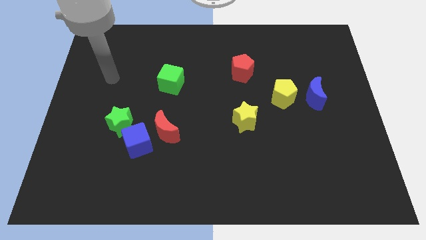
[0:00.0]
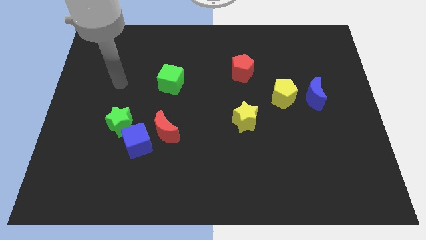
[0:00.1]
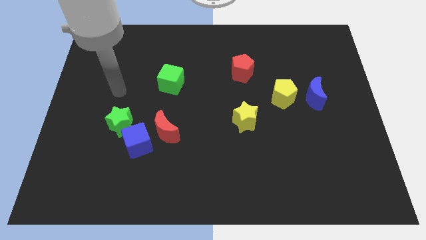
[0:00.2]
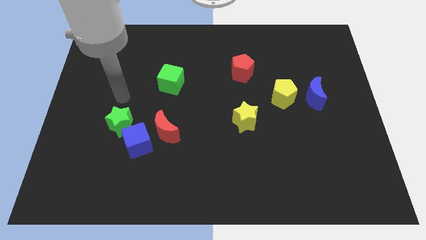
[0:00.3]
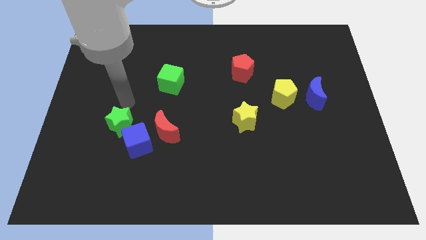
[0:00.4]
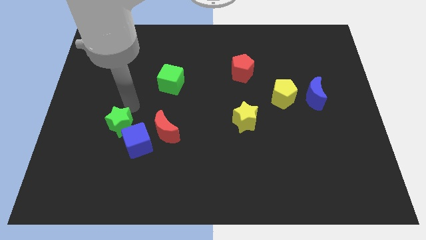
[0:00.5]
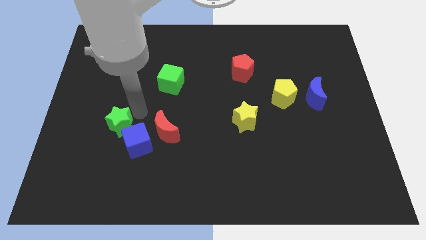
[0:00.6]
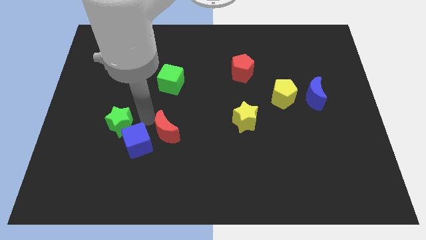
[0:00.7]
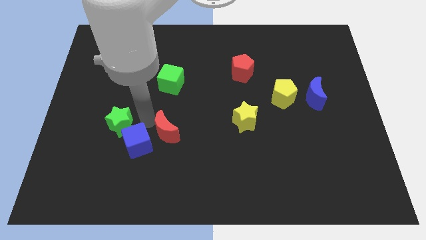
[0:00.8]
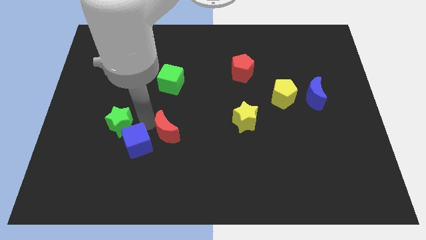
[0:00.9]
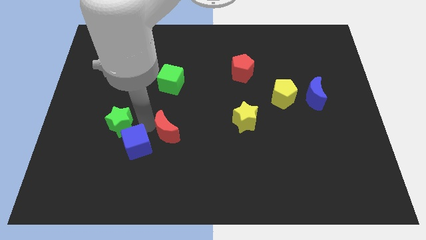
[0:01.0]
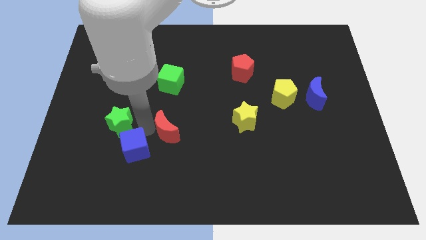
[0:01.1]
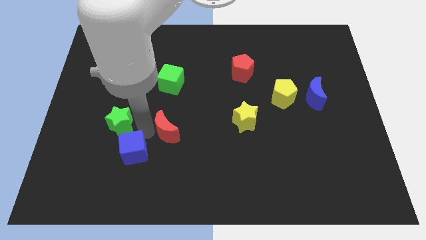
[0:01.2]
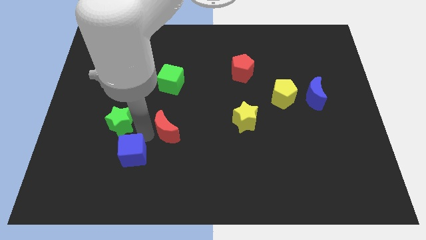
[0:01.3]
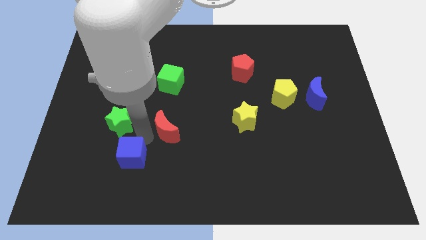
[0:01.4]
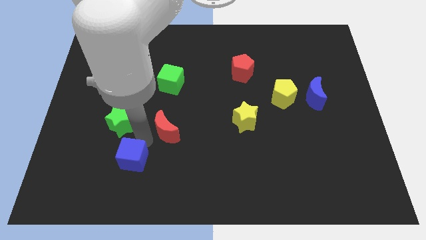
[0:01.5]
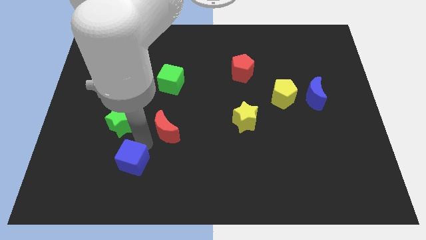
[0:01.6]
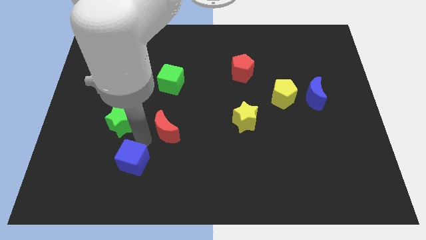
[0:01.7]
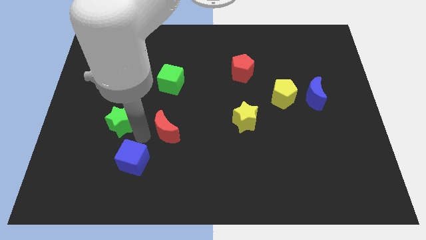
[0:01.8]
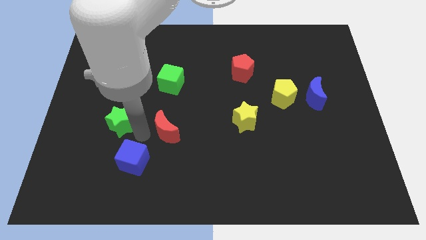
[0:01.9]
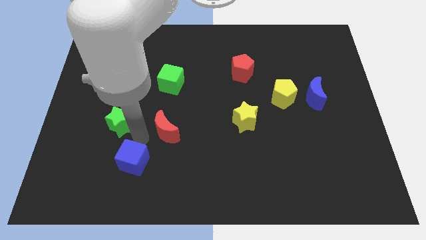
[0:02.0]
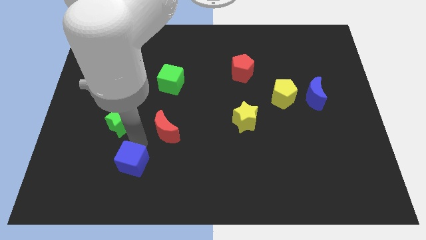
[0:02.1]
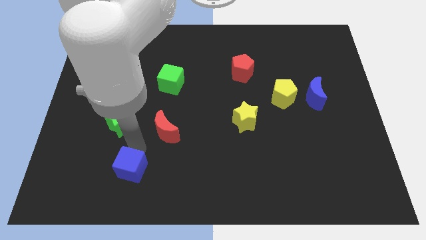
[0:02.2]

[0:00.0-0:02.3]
separate the blue cube from the red moon and green star

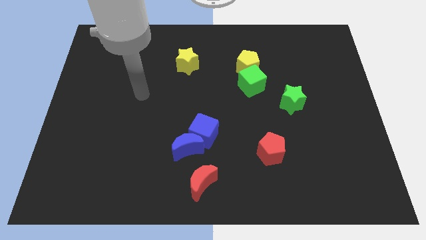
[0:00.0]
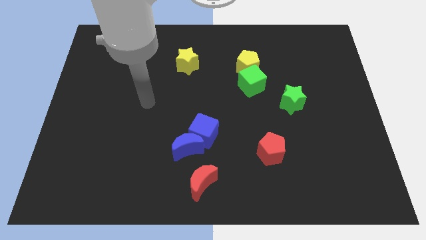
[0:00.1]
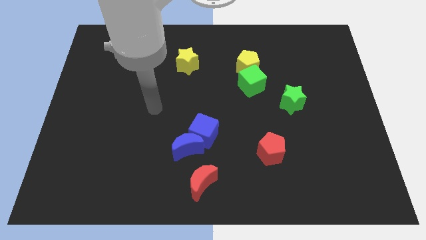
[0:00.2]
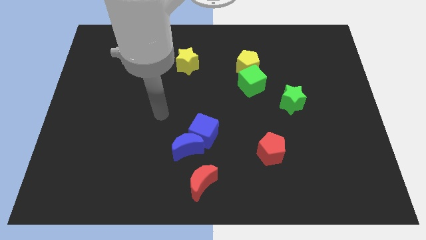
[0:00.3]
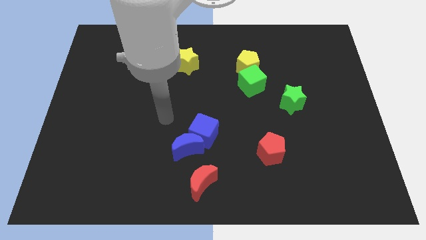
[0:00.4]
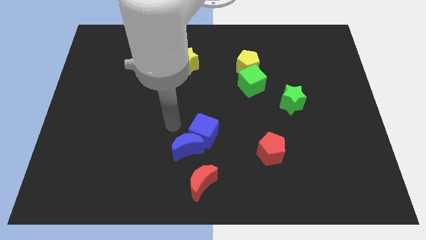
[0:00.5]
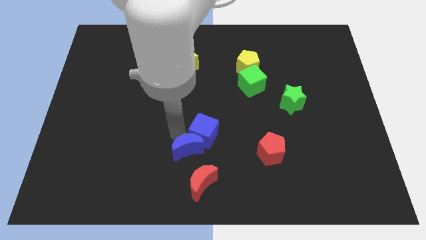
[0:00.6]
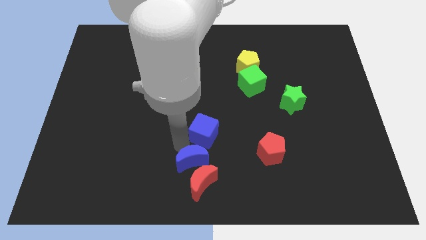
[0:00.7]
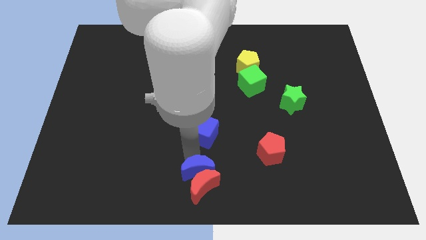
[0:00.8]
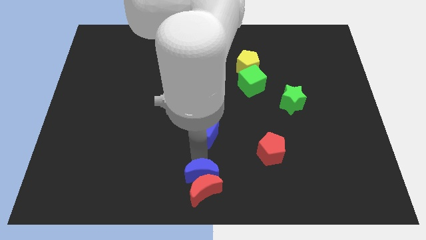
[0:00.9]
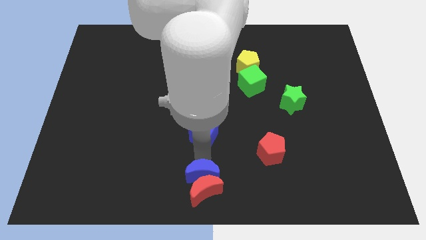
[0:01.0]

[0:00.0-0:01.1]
move the blue cube away from the blue moon

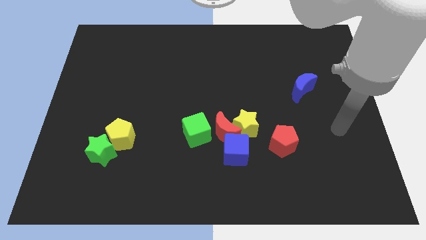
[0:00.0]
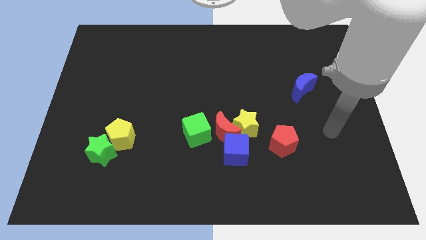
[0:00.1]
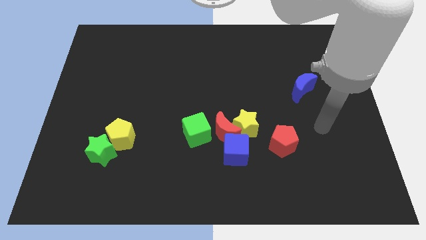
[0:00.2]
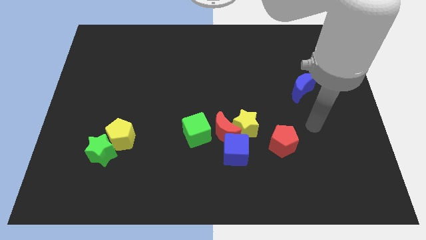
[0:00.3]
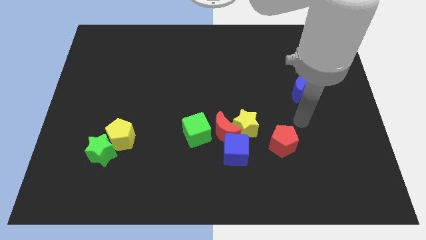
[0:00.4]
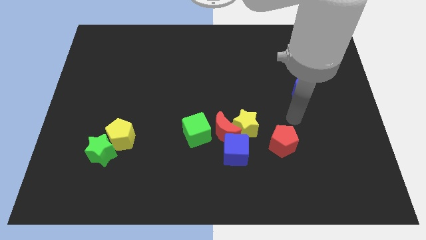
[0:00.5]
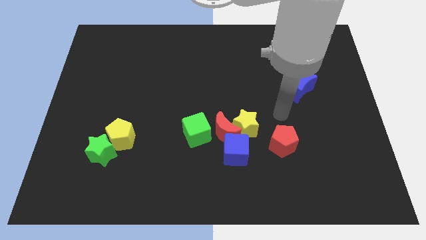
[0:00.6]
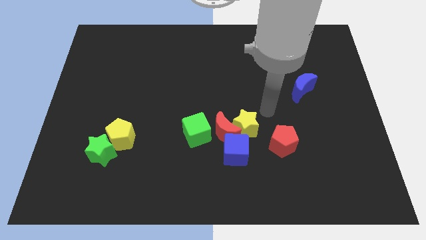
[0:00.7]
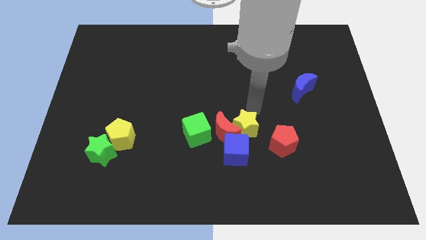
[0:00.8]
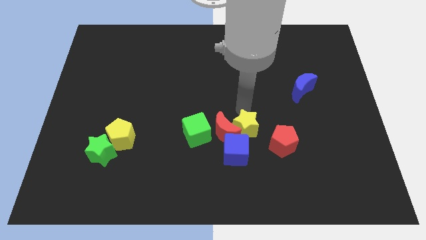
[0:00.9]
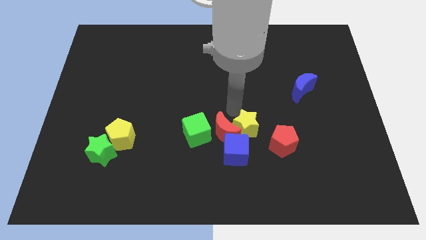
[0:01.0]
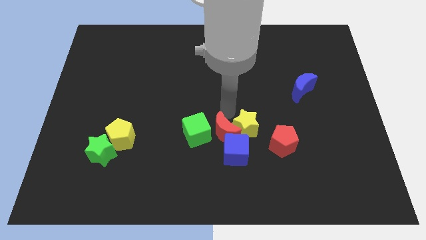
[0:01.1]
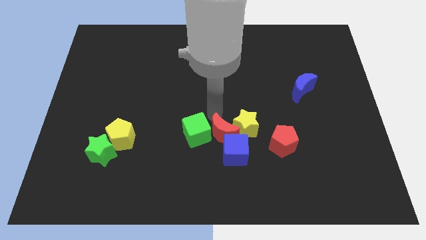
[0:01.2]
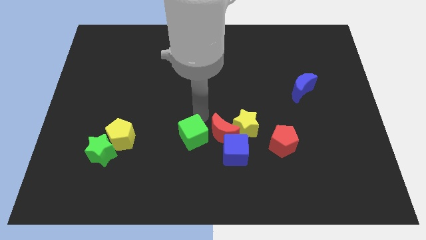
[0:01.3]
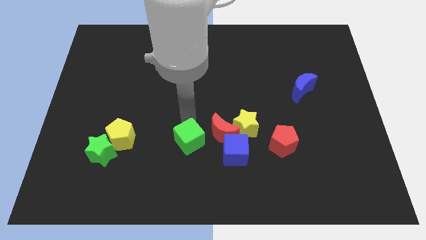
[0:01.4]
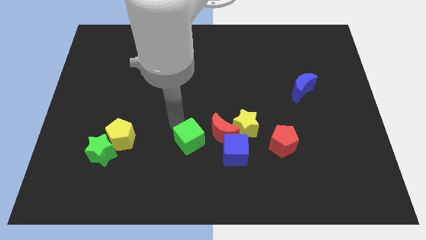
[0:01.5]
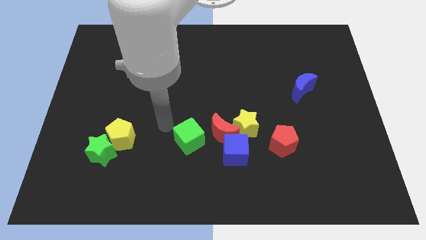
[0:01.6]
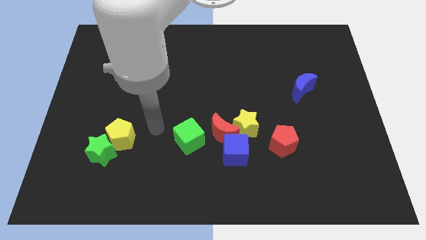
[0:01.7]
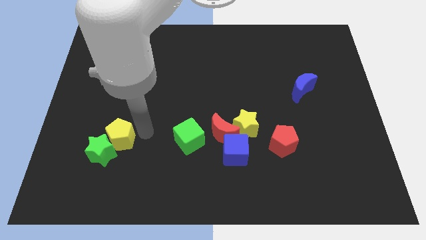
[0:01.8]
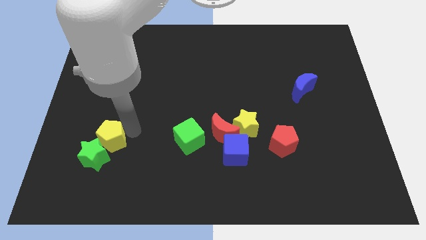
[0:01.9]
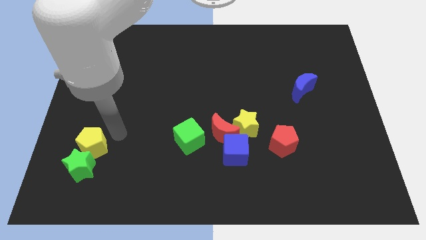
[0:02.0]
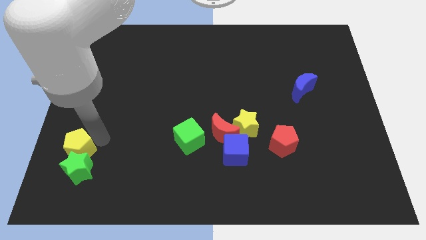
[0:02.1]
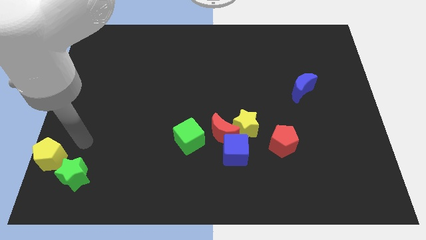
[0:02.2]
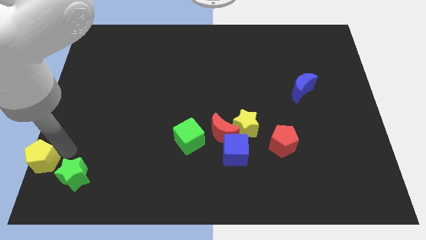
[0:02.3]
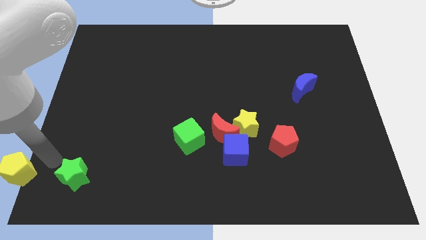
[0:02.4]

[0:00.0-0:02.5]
separate the green star from the yellow pentagon

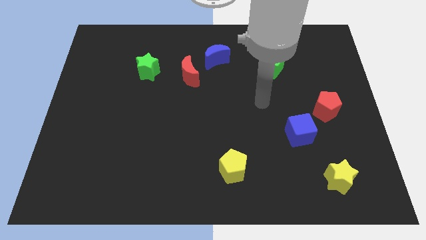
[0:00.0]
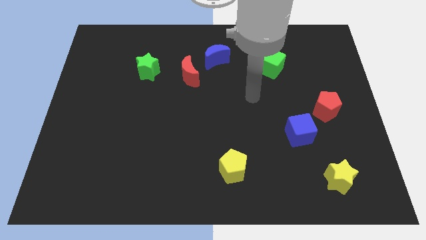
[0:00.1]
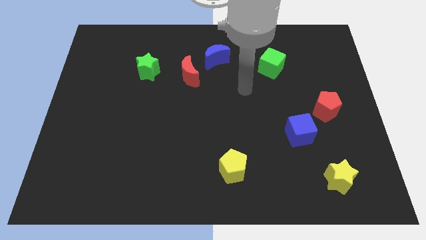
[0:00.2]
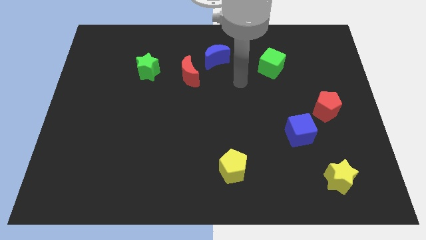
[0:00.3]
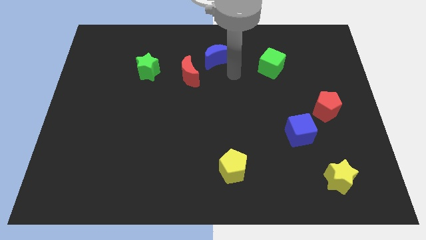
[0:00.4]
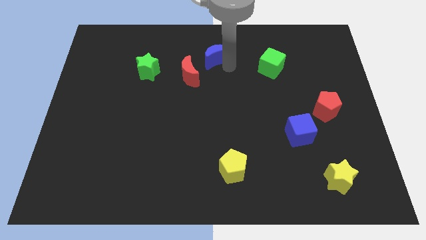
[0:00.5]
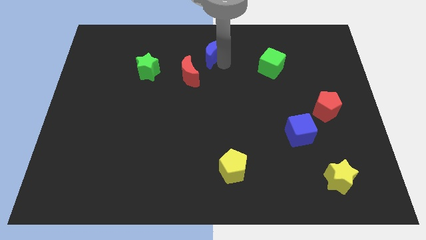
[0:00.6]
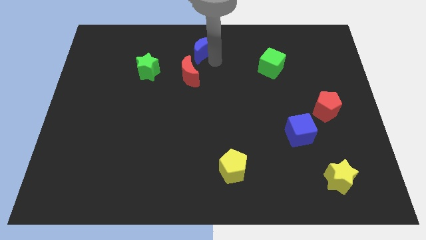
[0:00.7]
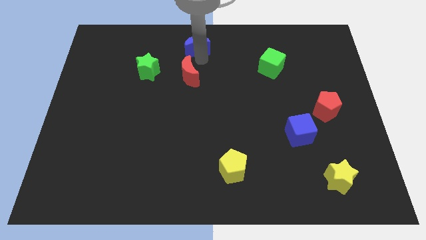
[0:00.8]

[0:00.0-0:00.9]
move the red moon away from the blue moon

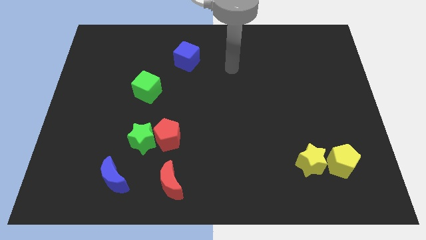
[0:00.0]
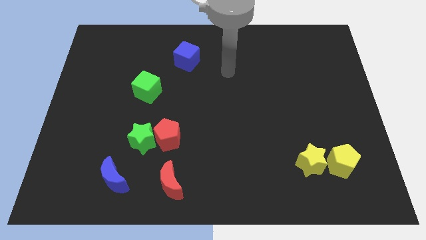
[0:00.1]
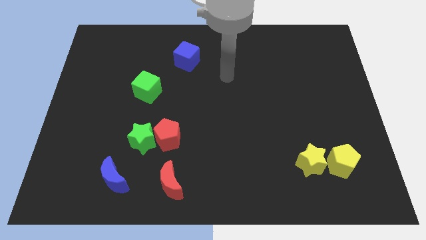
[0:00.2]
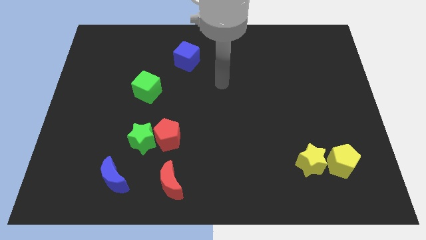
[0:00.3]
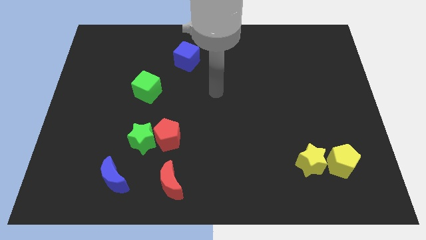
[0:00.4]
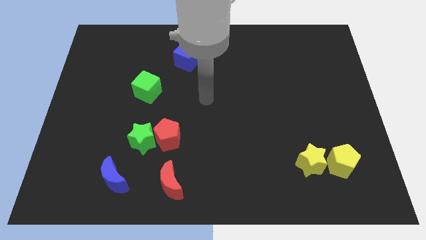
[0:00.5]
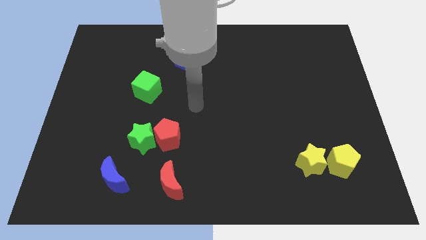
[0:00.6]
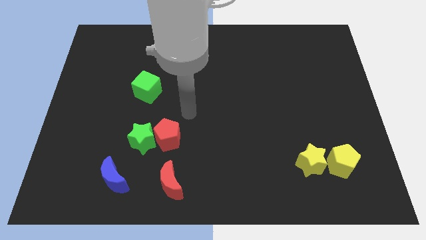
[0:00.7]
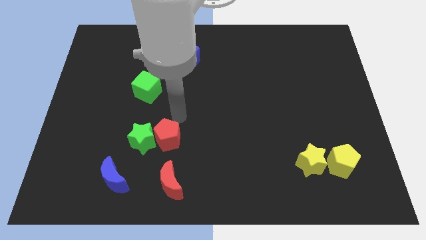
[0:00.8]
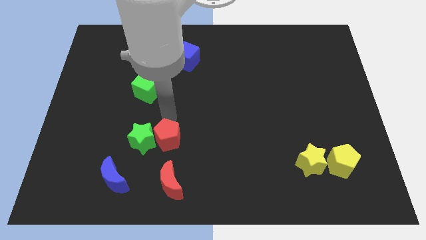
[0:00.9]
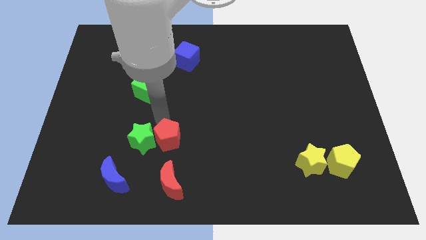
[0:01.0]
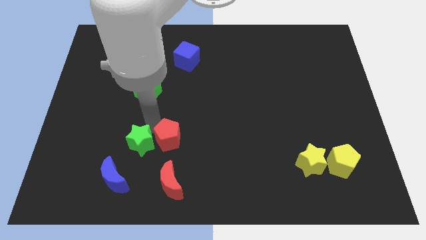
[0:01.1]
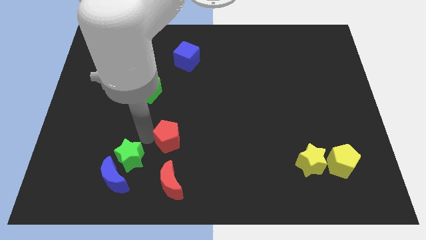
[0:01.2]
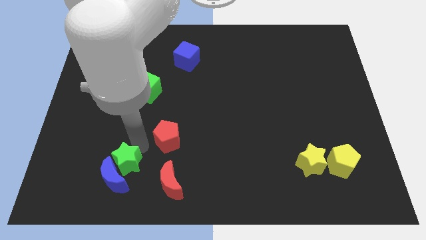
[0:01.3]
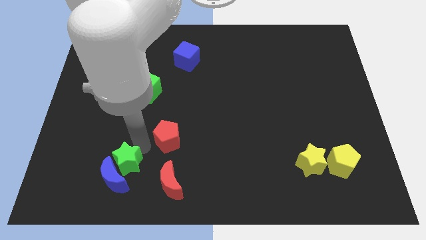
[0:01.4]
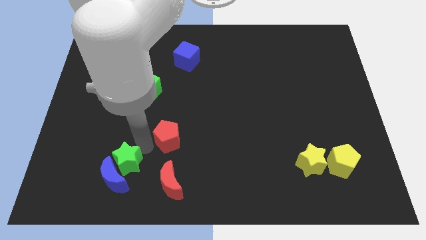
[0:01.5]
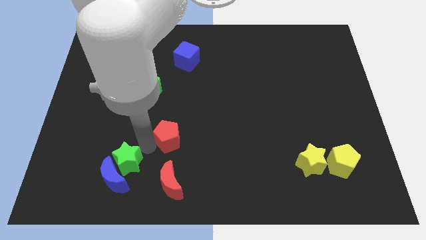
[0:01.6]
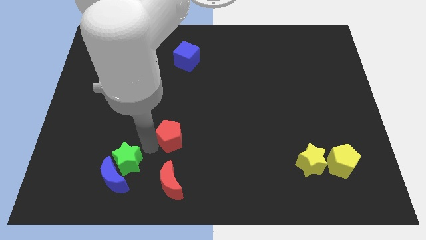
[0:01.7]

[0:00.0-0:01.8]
separate the red pentagon from the green star

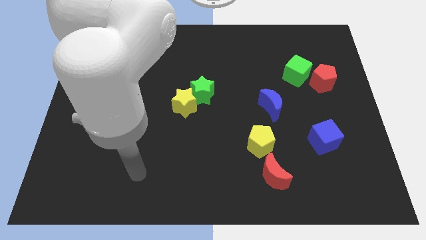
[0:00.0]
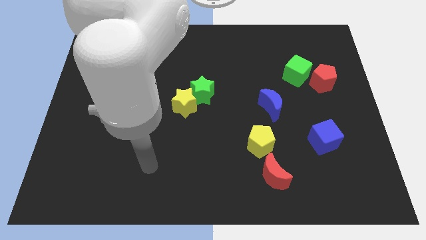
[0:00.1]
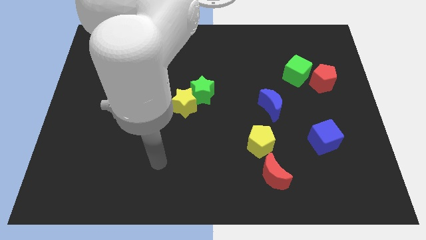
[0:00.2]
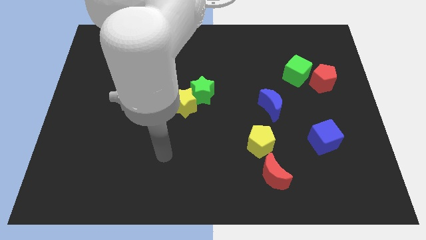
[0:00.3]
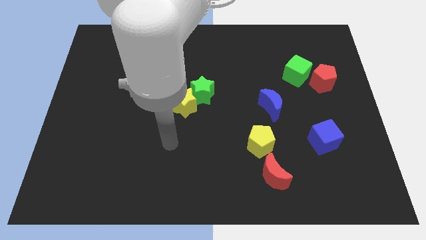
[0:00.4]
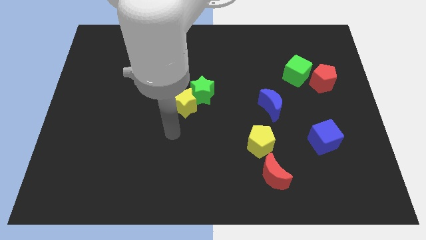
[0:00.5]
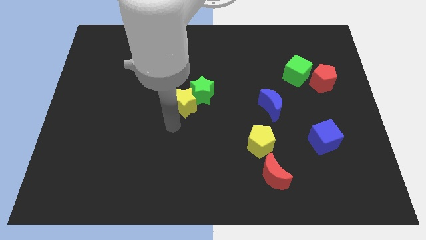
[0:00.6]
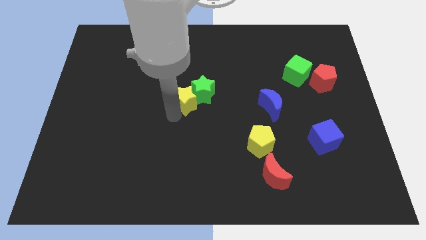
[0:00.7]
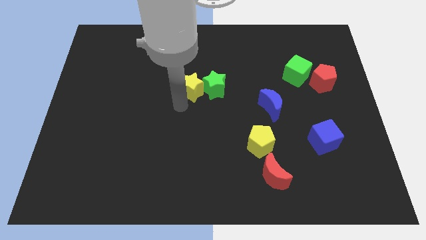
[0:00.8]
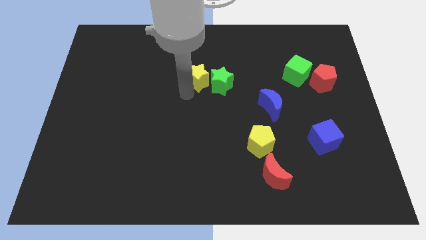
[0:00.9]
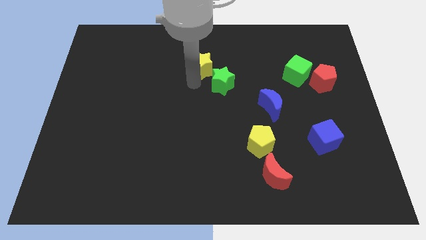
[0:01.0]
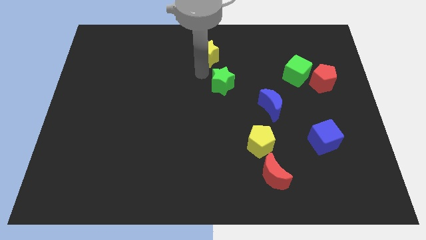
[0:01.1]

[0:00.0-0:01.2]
separate the green star from the yellow star
